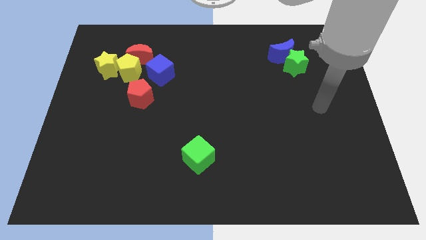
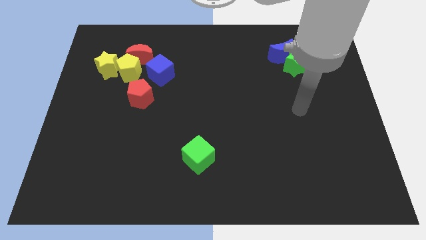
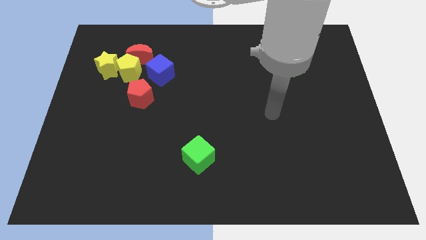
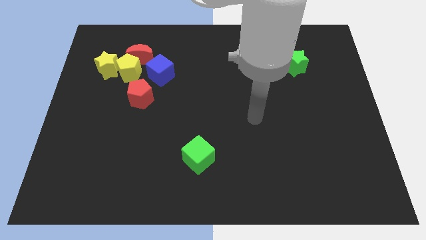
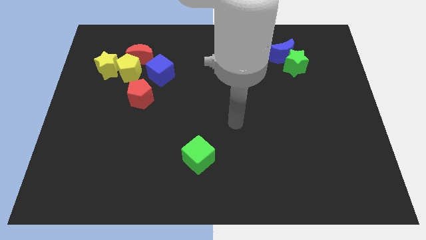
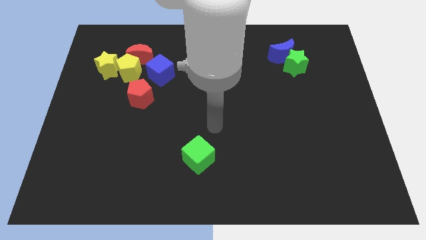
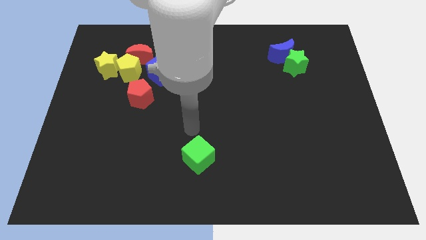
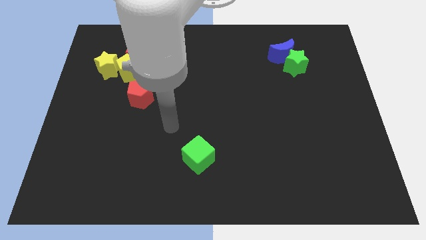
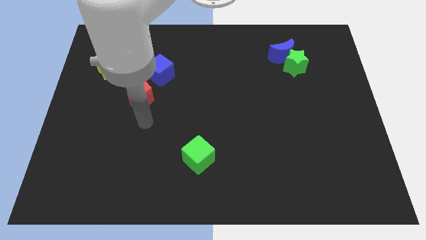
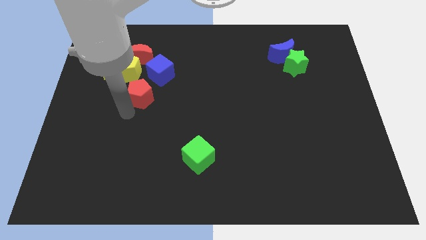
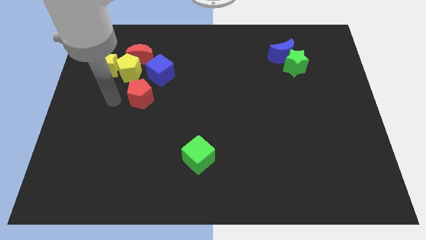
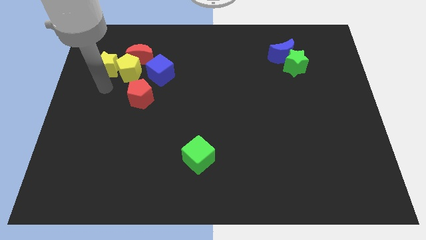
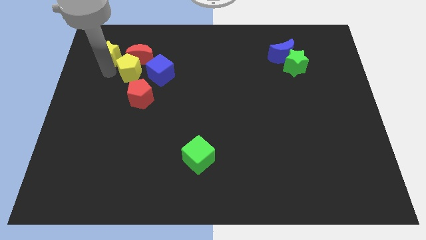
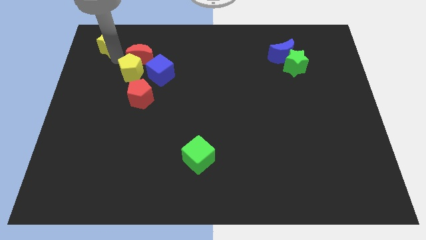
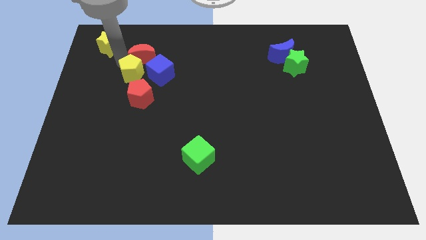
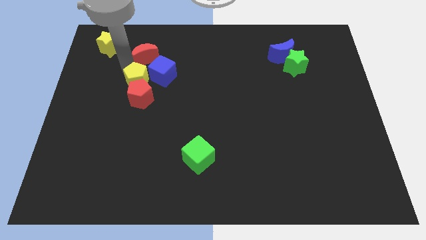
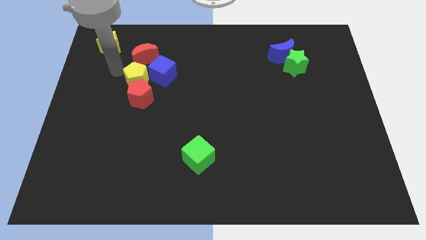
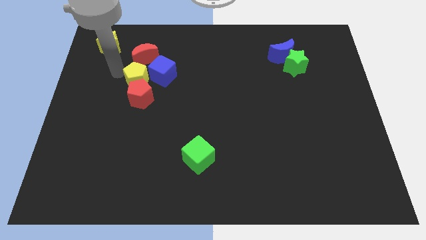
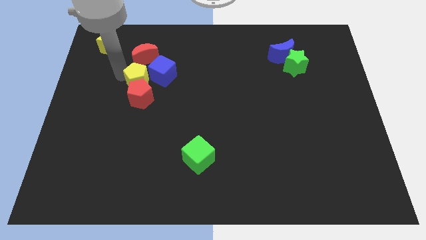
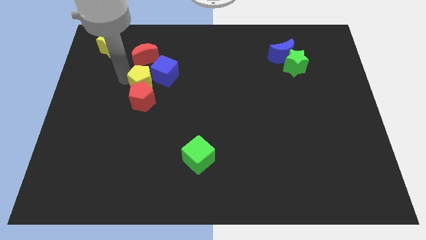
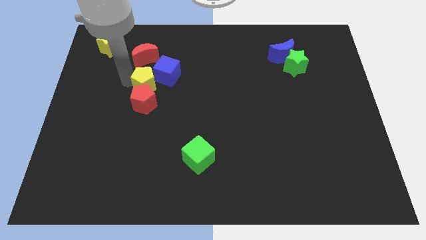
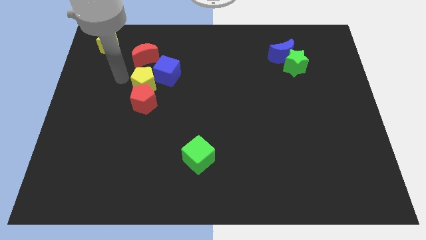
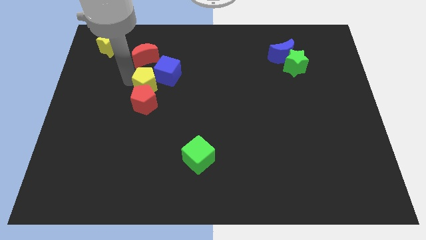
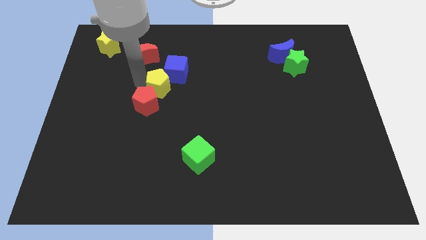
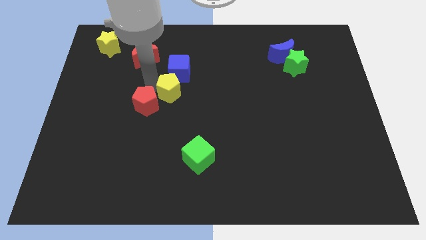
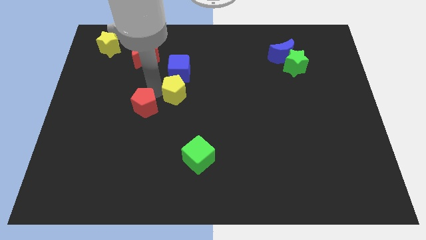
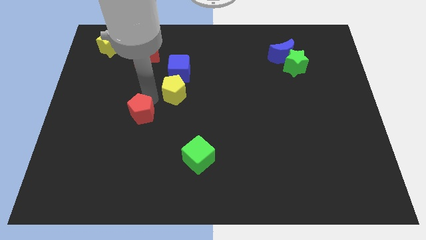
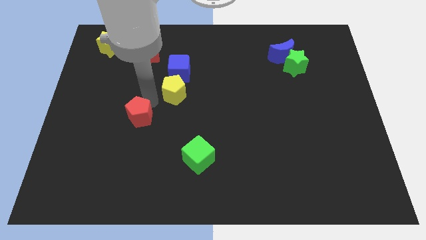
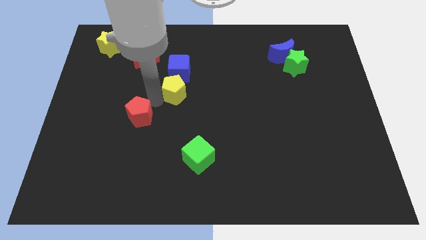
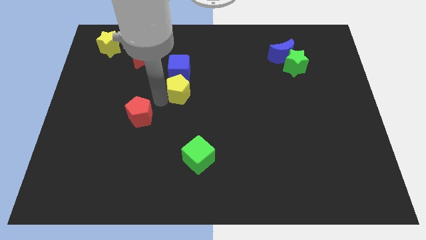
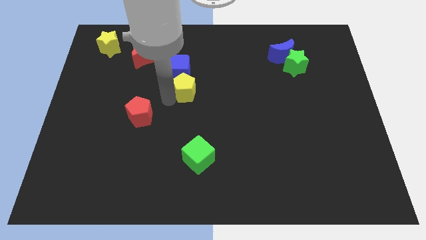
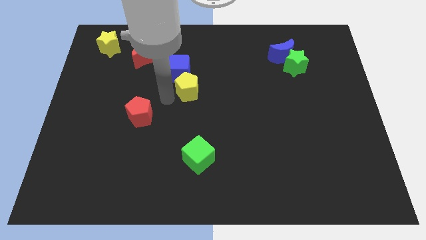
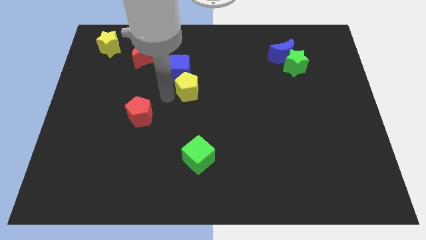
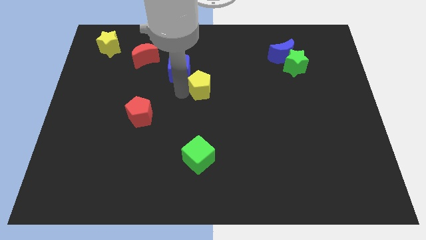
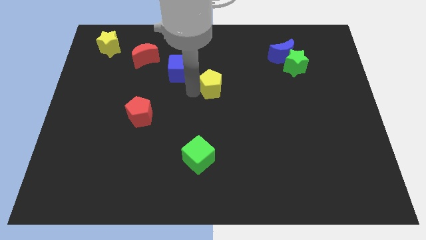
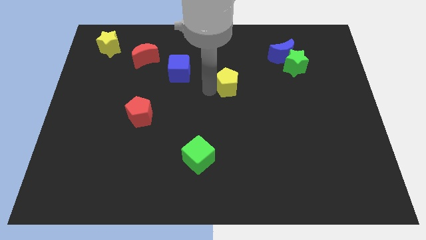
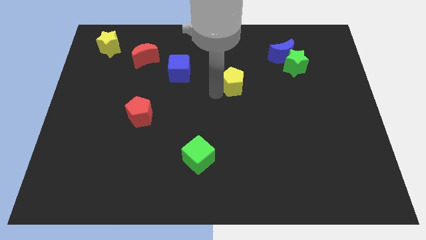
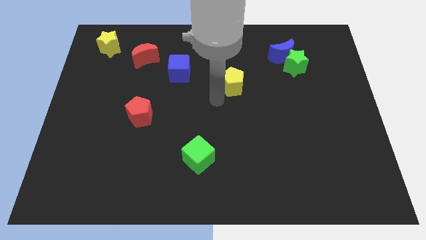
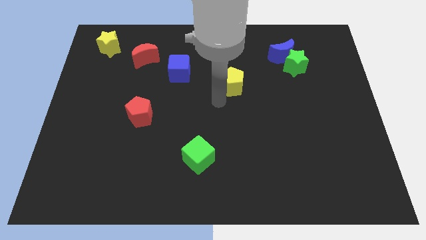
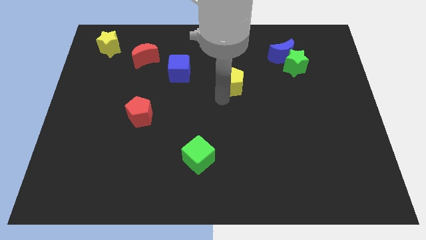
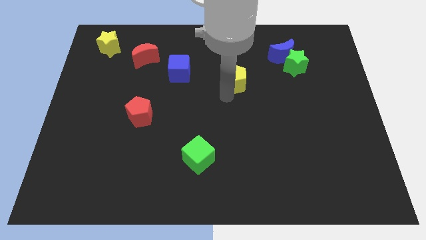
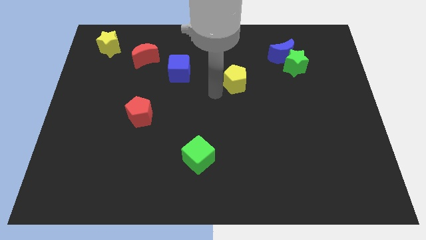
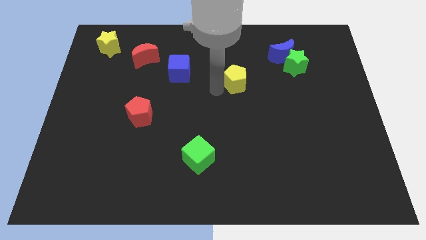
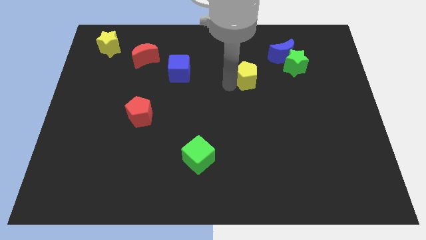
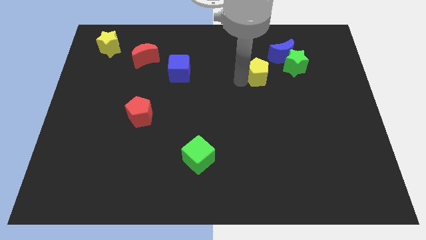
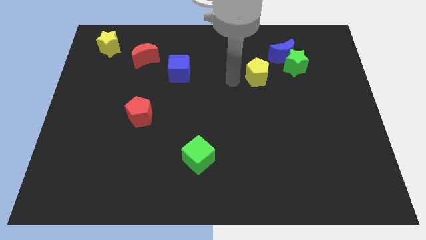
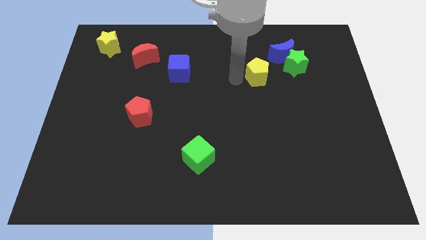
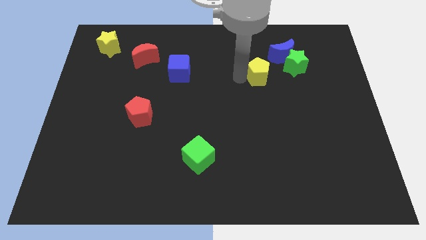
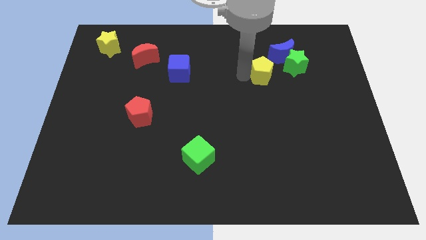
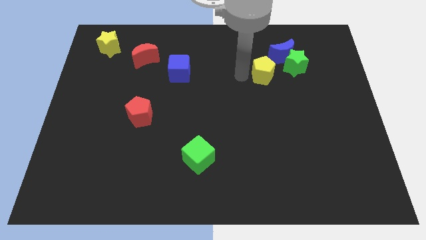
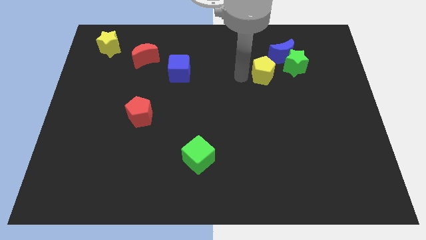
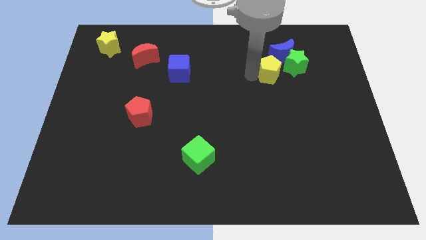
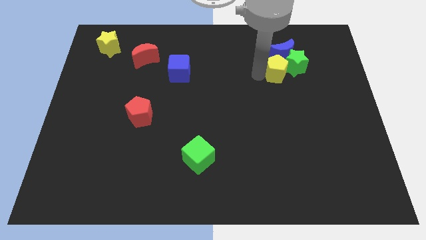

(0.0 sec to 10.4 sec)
put the yellow pentagon next to the green star

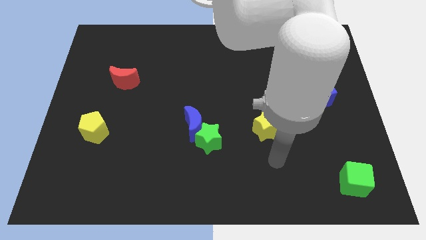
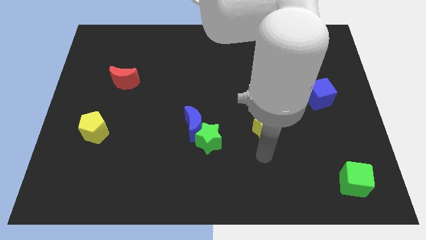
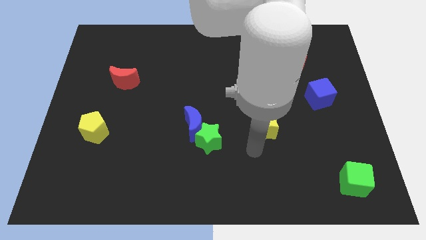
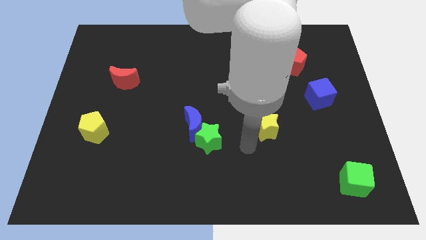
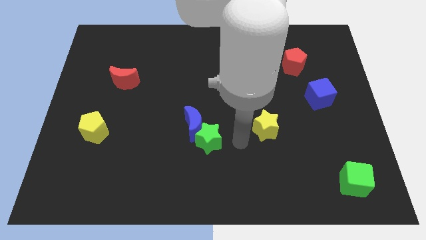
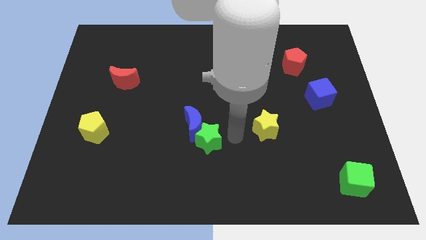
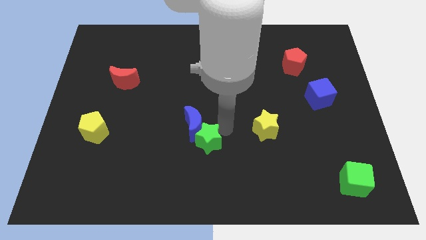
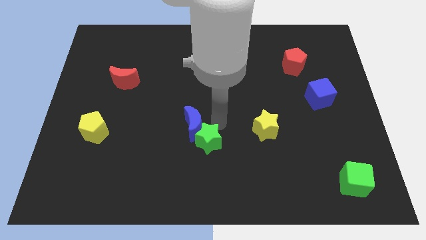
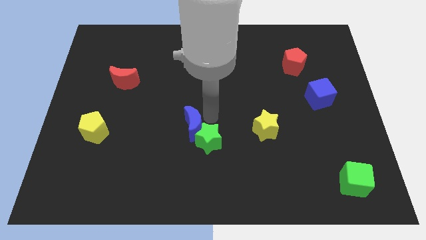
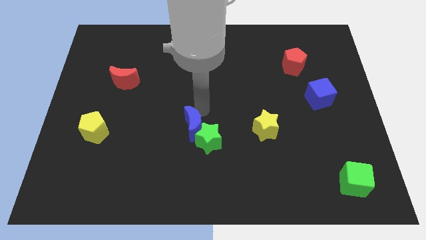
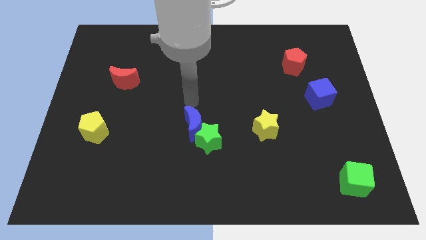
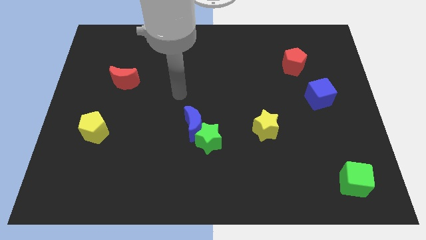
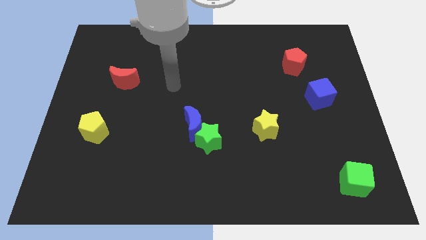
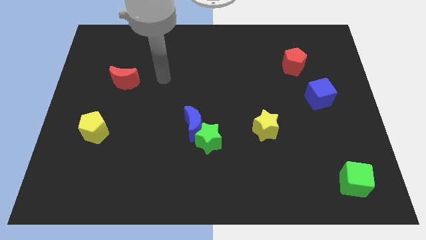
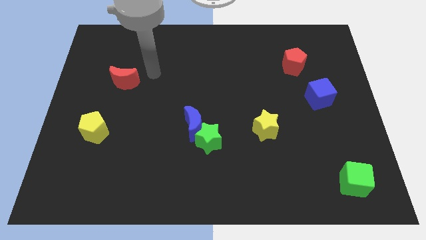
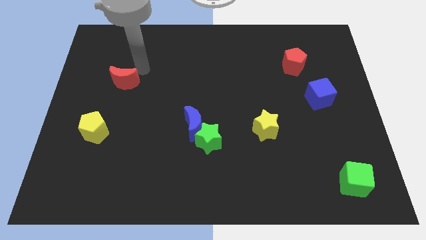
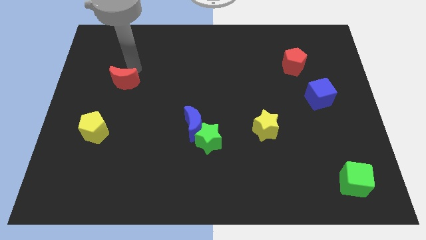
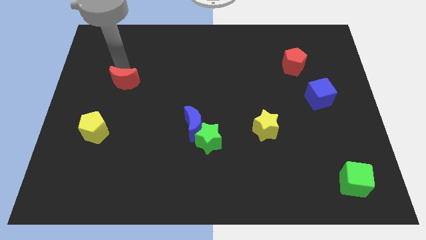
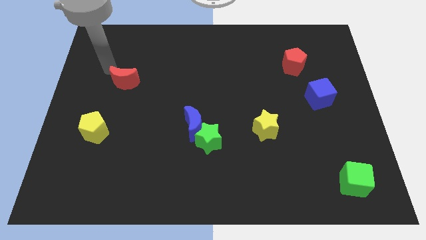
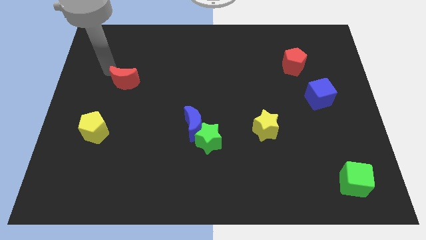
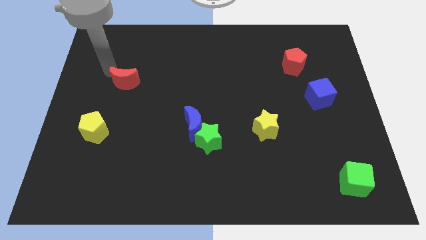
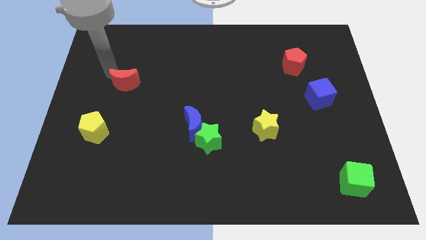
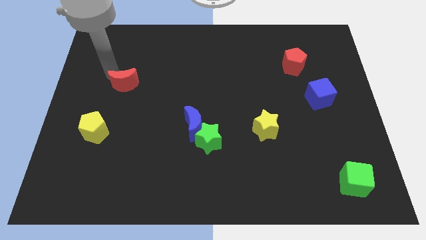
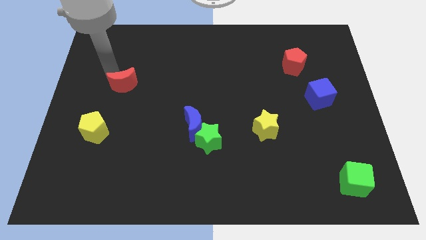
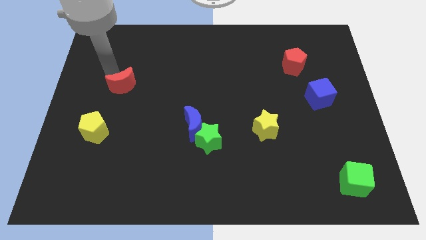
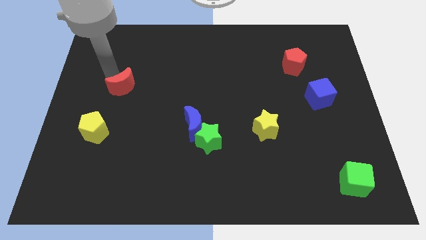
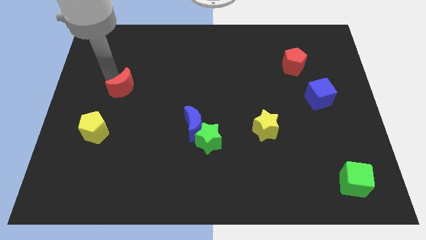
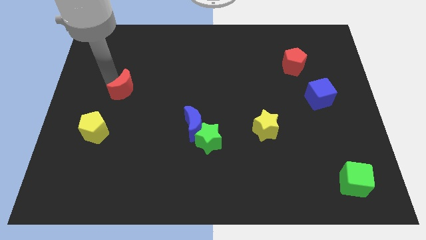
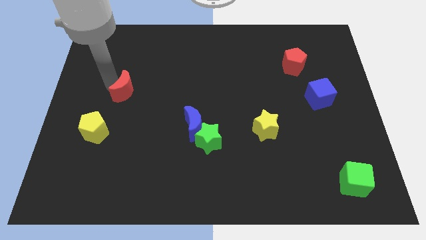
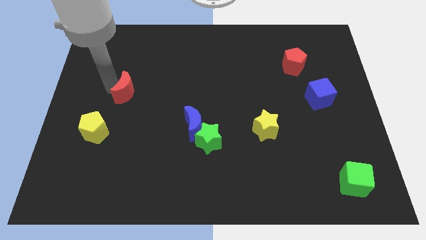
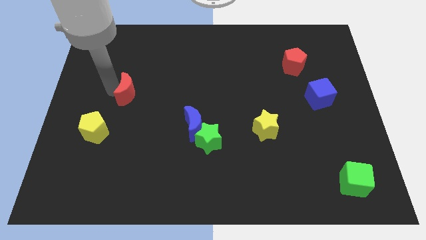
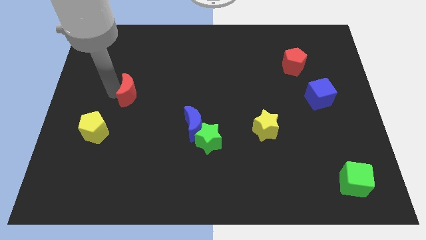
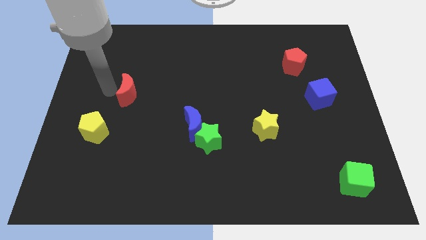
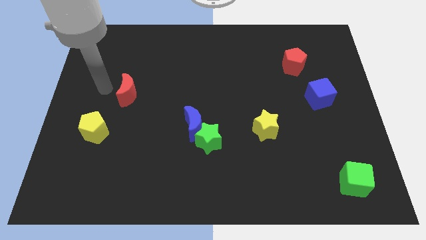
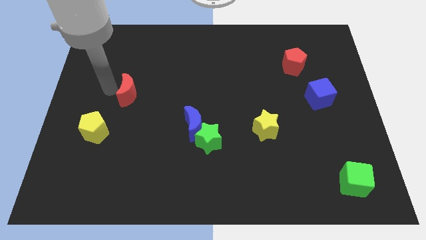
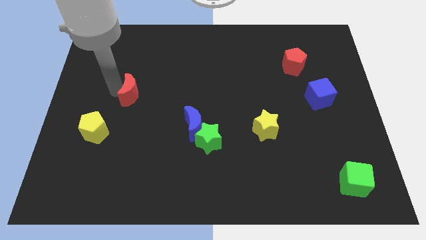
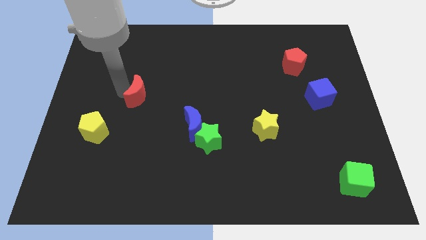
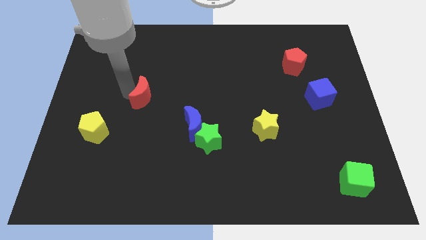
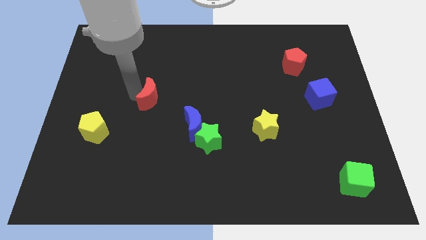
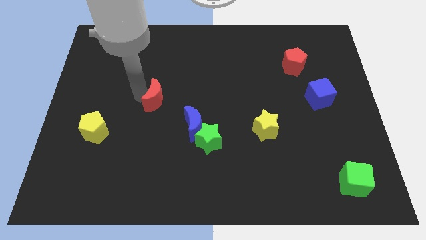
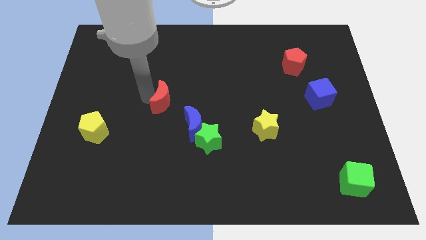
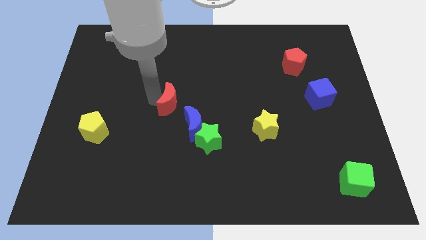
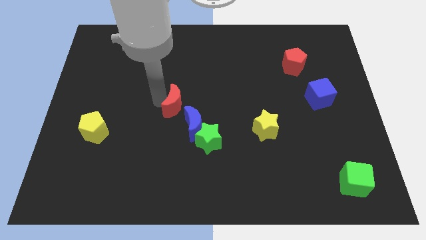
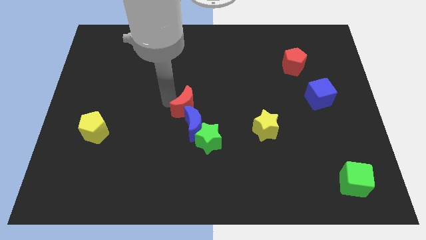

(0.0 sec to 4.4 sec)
move the red moon towards the blue moon
